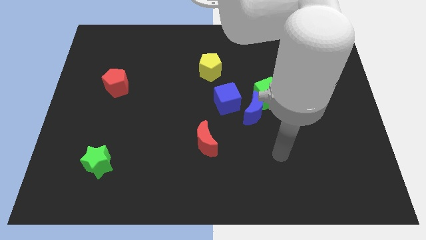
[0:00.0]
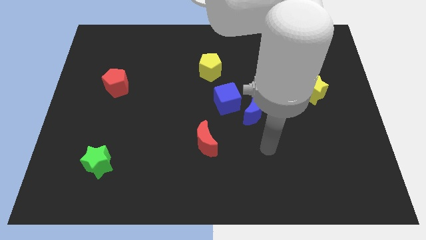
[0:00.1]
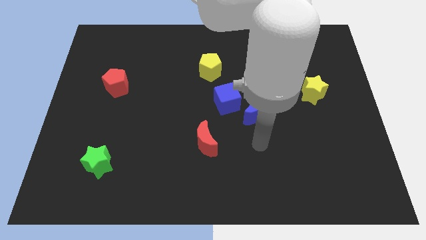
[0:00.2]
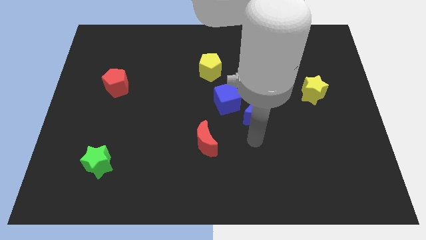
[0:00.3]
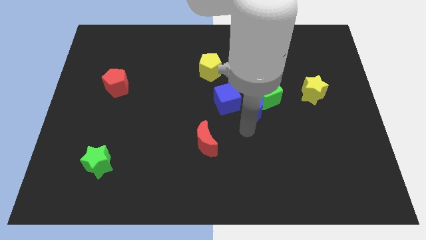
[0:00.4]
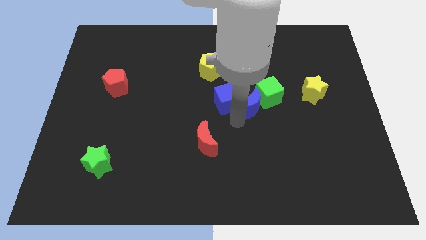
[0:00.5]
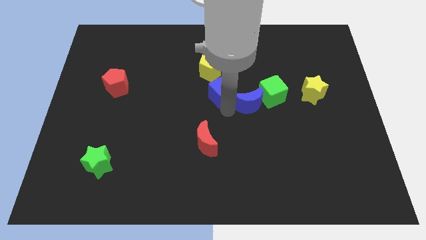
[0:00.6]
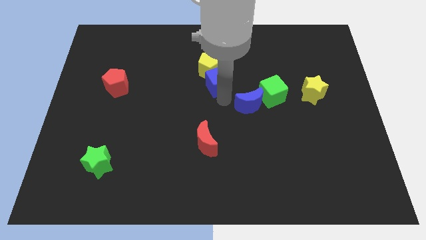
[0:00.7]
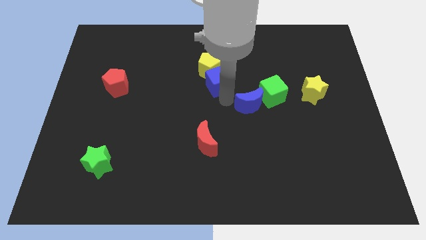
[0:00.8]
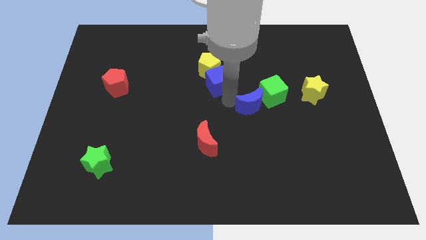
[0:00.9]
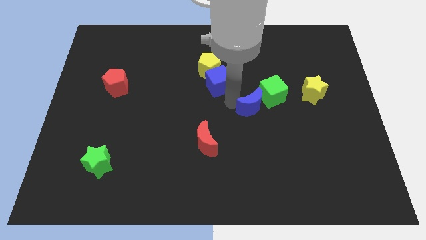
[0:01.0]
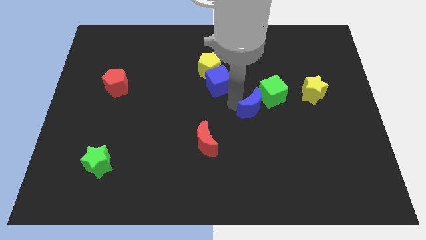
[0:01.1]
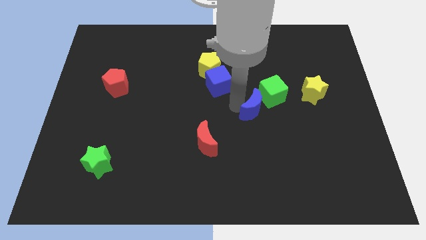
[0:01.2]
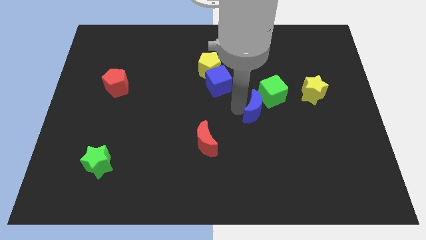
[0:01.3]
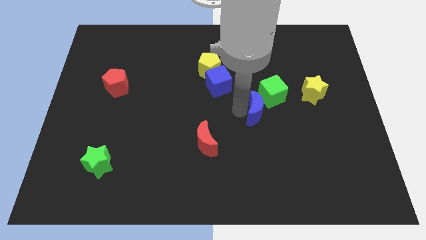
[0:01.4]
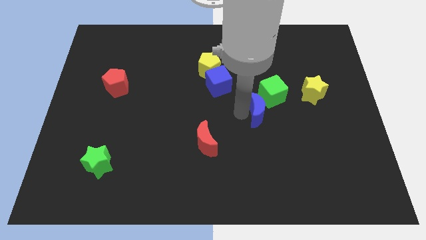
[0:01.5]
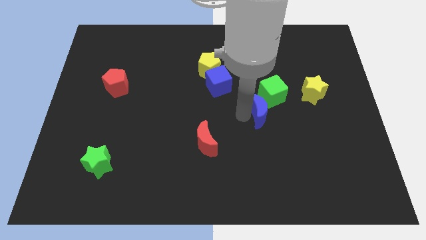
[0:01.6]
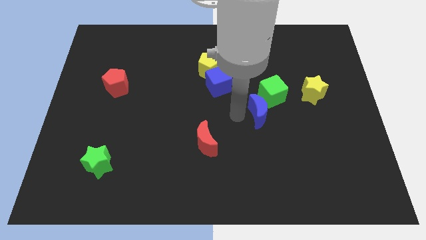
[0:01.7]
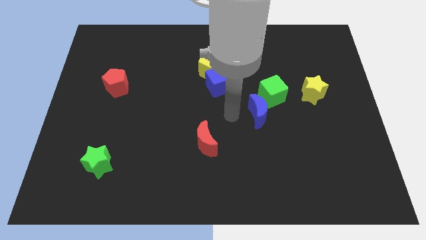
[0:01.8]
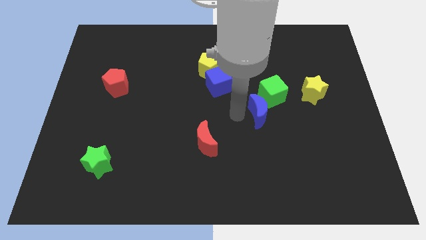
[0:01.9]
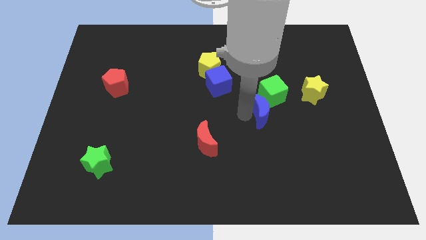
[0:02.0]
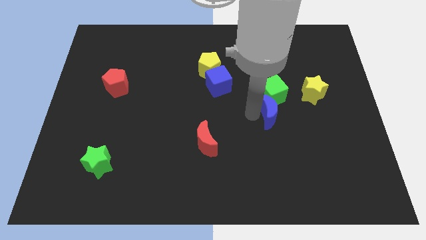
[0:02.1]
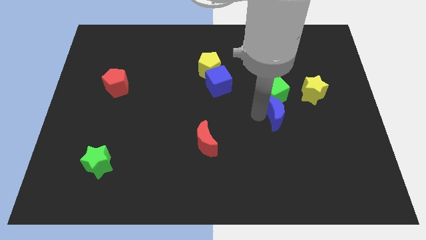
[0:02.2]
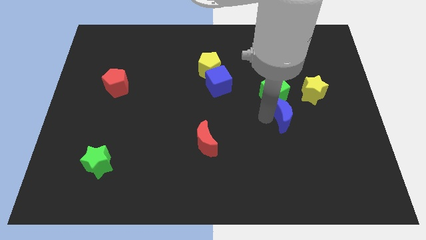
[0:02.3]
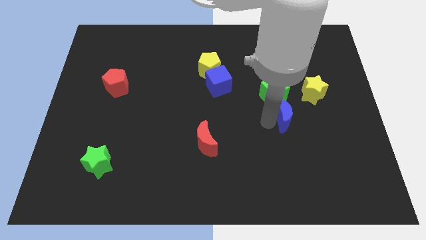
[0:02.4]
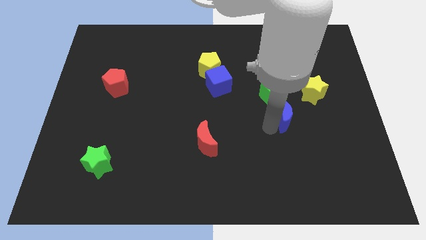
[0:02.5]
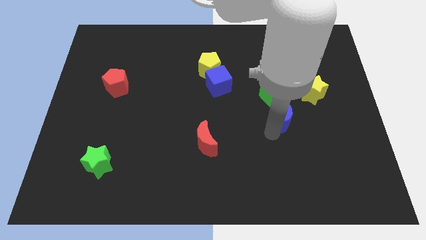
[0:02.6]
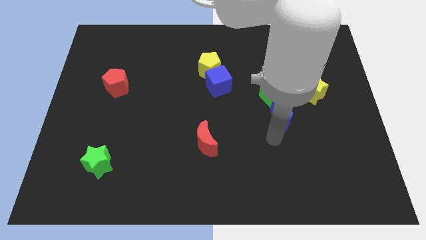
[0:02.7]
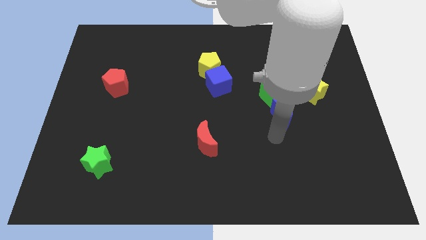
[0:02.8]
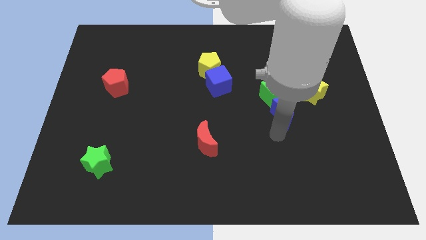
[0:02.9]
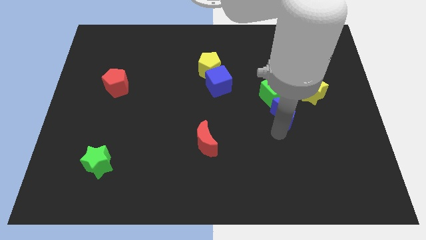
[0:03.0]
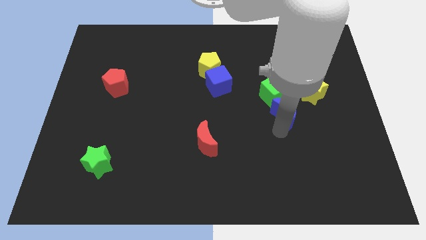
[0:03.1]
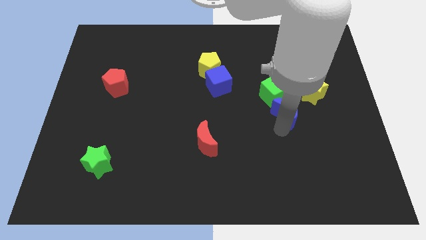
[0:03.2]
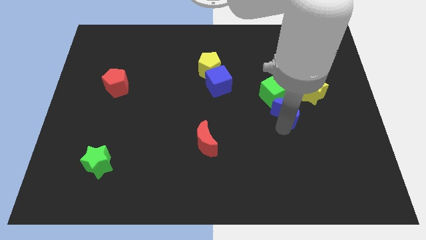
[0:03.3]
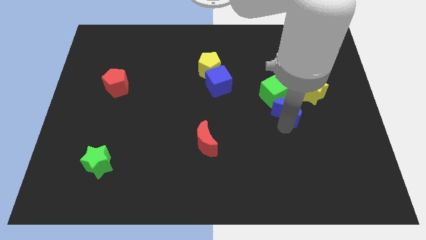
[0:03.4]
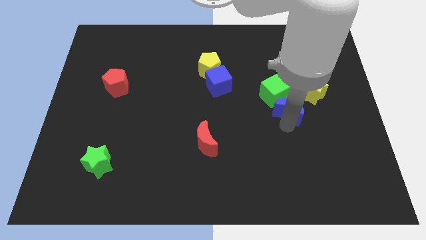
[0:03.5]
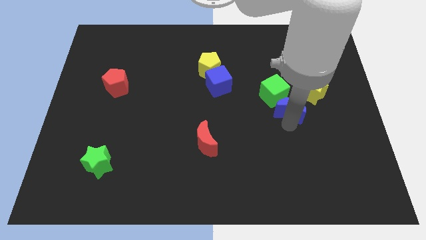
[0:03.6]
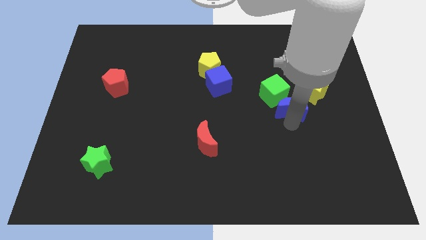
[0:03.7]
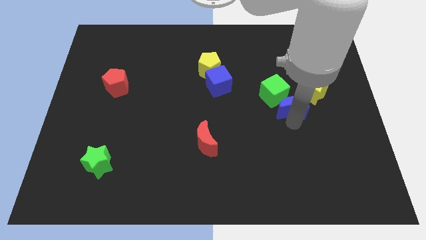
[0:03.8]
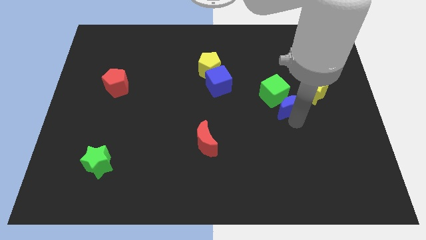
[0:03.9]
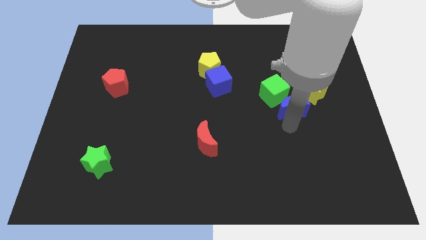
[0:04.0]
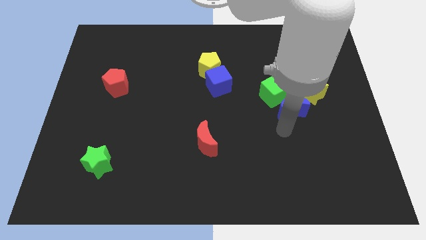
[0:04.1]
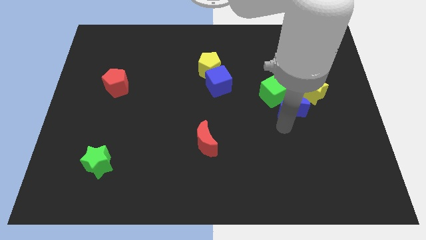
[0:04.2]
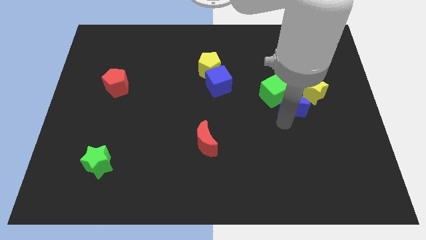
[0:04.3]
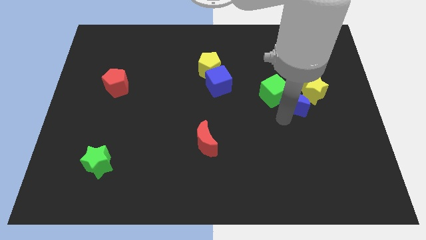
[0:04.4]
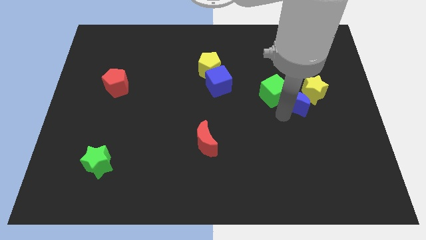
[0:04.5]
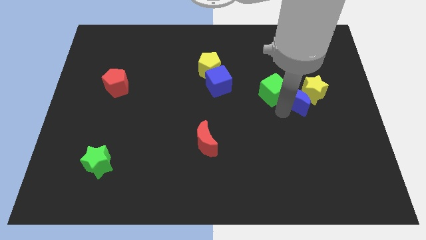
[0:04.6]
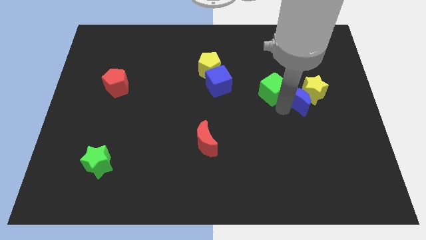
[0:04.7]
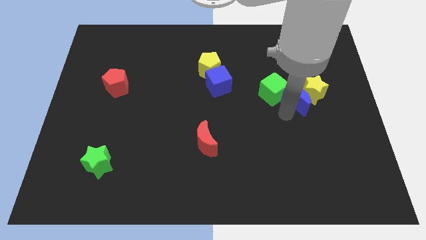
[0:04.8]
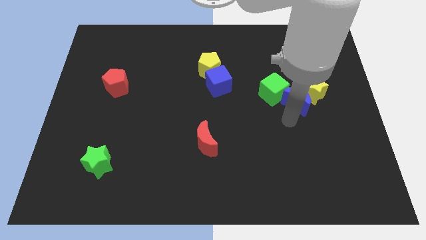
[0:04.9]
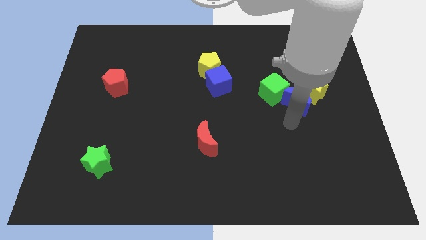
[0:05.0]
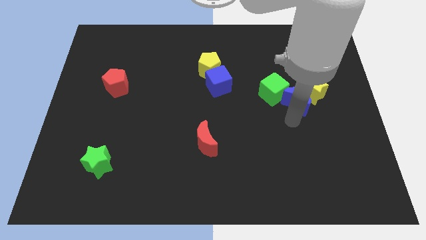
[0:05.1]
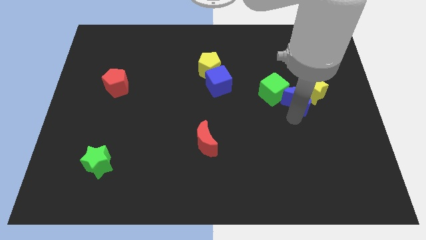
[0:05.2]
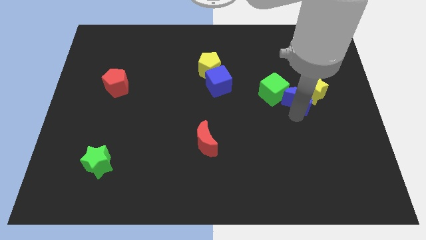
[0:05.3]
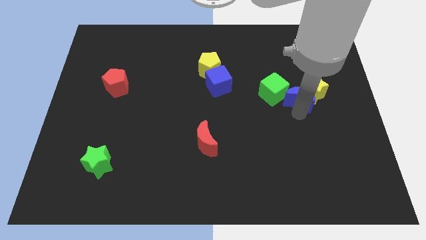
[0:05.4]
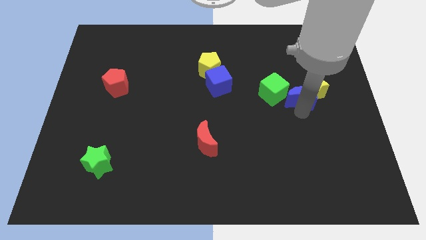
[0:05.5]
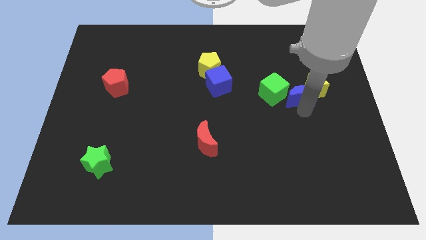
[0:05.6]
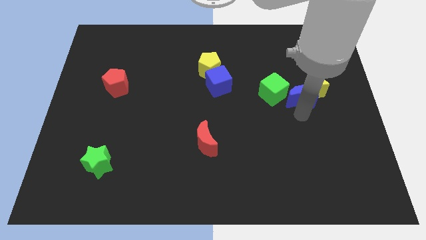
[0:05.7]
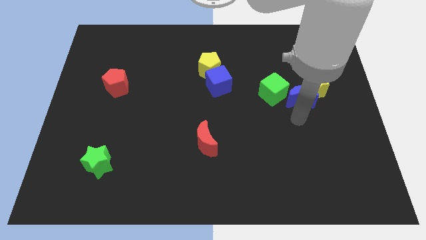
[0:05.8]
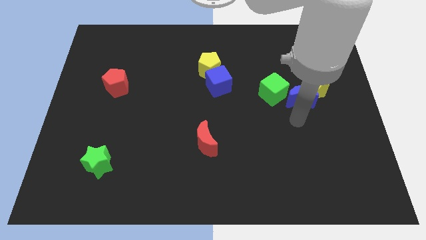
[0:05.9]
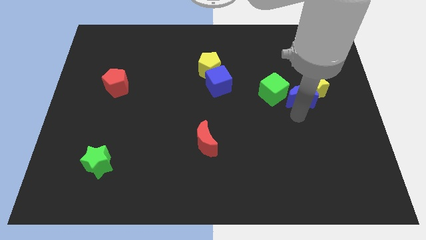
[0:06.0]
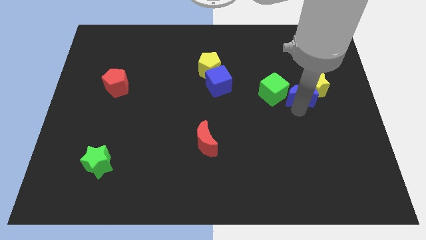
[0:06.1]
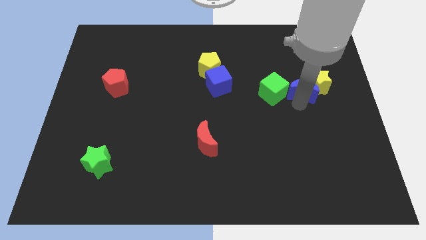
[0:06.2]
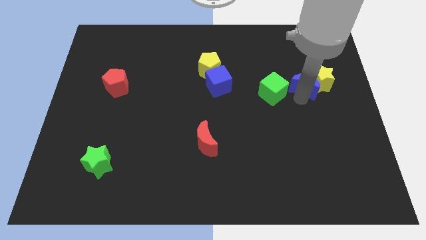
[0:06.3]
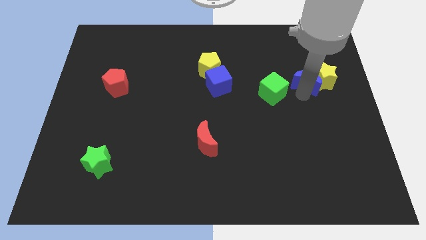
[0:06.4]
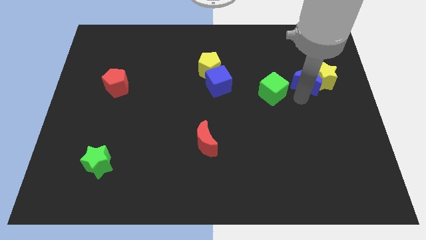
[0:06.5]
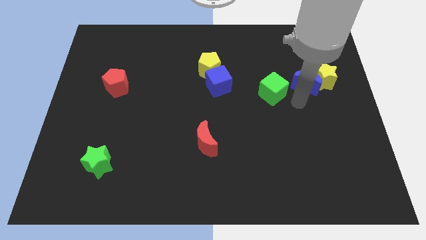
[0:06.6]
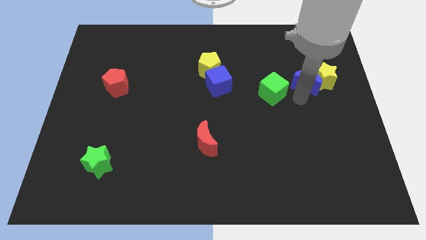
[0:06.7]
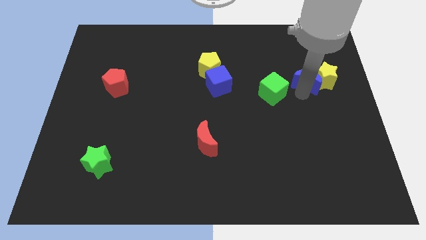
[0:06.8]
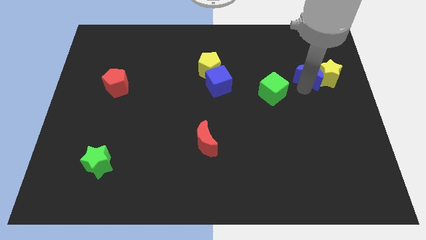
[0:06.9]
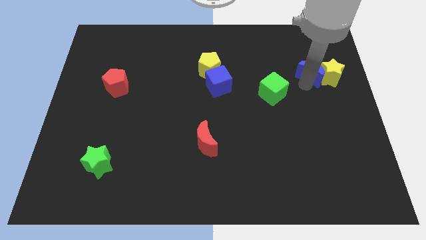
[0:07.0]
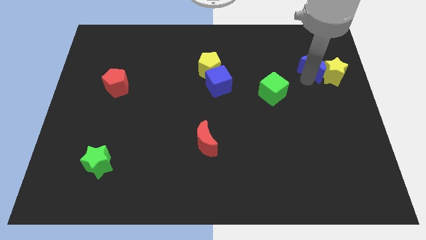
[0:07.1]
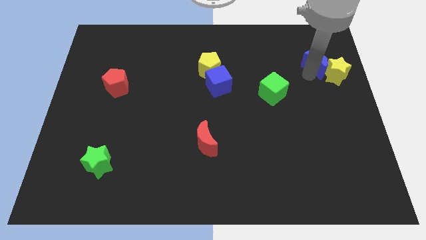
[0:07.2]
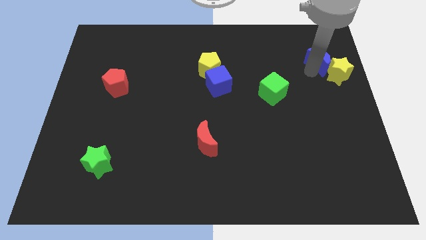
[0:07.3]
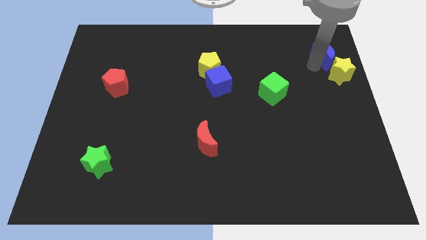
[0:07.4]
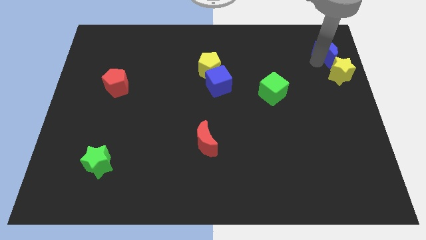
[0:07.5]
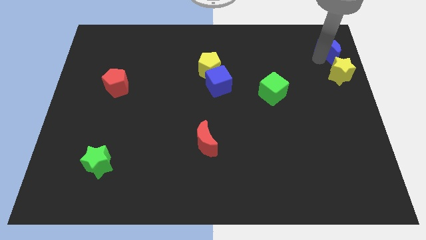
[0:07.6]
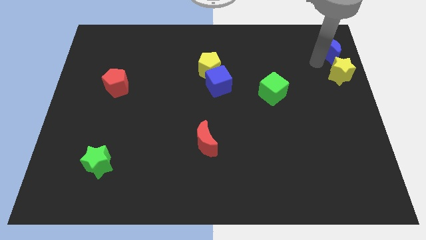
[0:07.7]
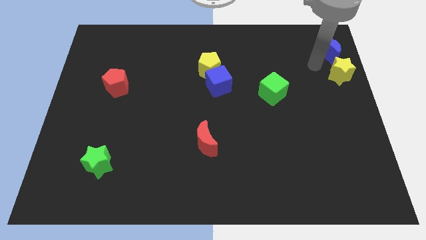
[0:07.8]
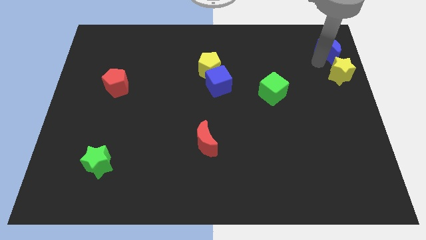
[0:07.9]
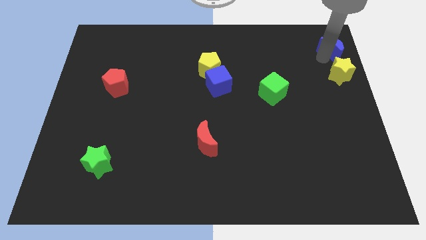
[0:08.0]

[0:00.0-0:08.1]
slide the blue moon to the top right corner
